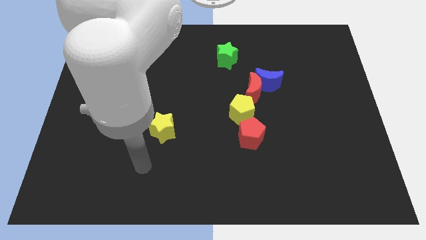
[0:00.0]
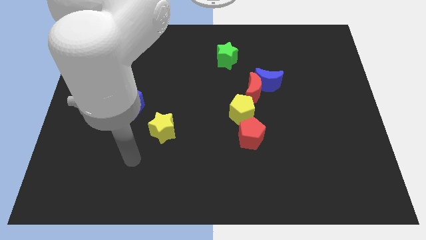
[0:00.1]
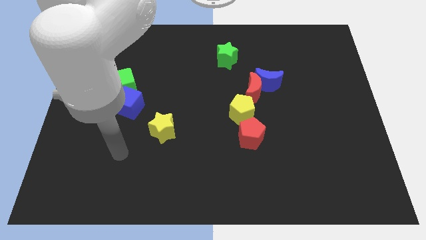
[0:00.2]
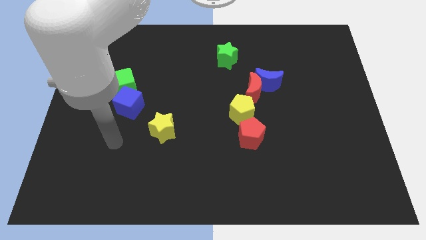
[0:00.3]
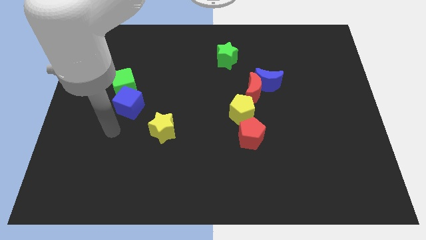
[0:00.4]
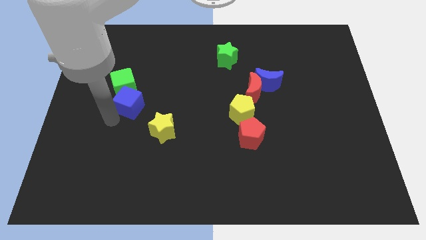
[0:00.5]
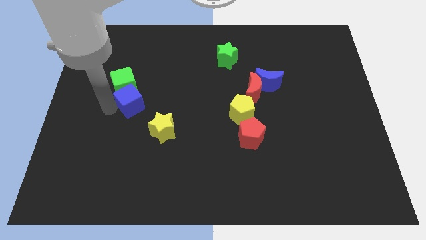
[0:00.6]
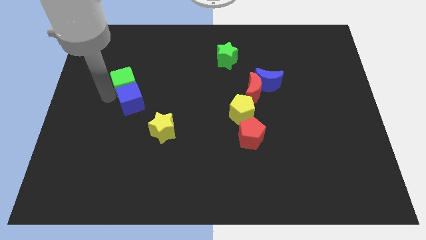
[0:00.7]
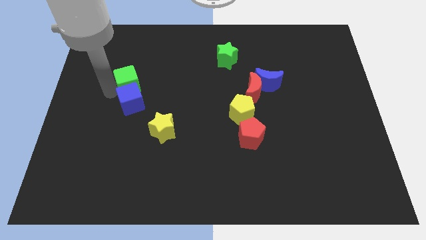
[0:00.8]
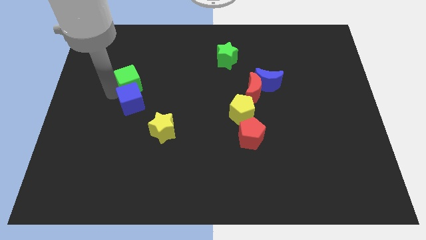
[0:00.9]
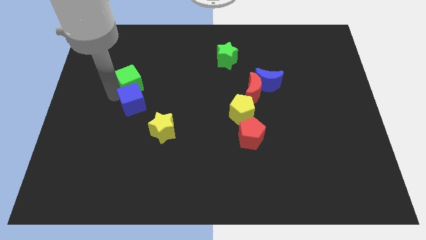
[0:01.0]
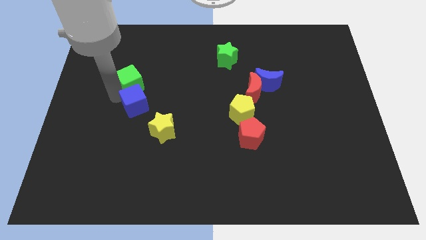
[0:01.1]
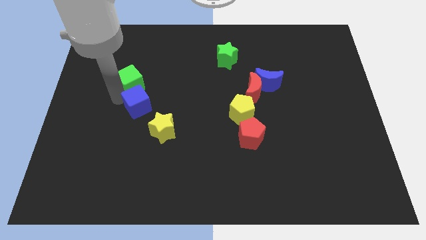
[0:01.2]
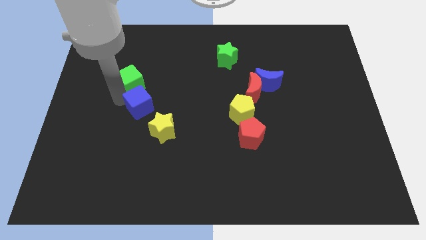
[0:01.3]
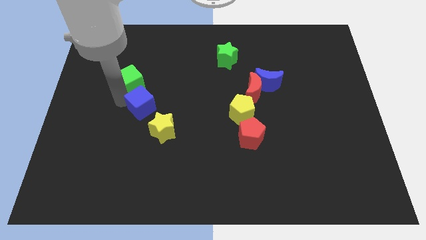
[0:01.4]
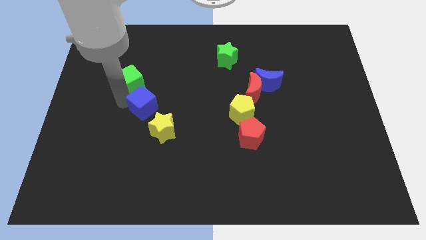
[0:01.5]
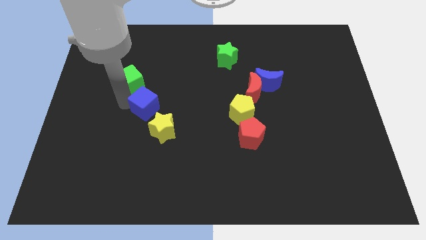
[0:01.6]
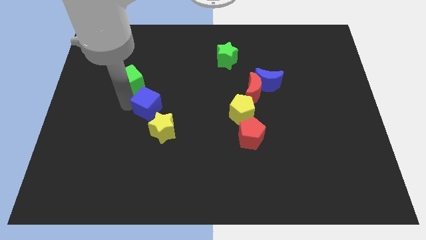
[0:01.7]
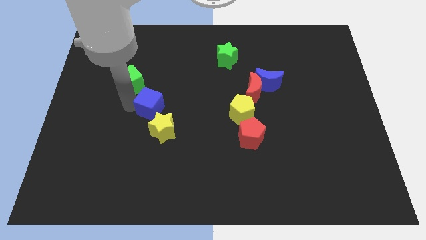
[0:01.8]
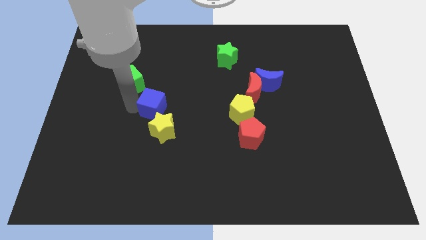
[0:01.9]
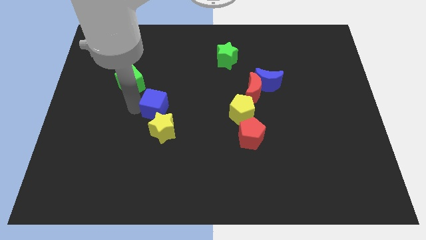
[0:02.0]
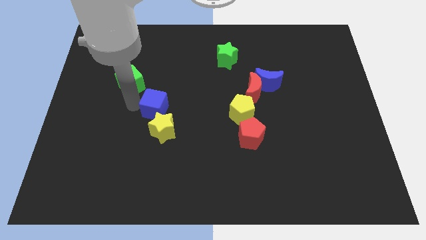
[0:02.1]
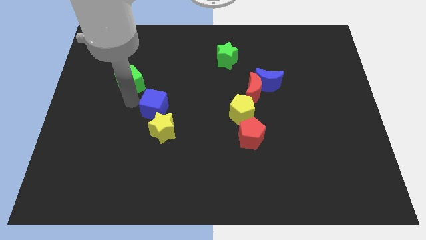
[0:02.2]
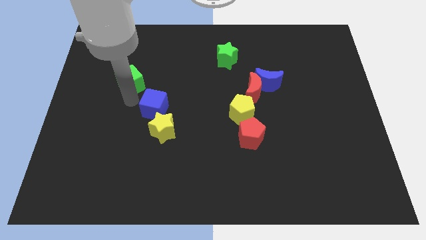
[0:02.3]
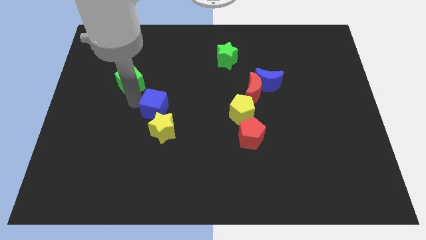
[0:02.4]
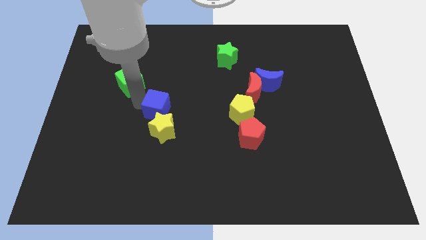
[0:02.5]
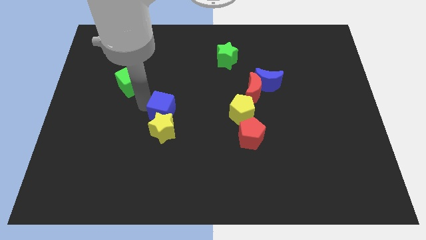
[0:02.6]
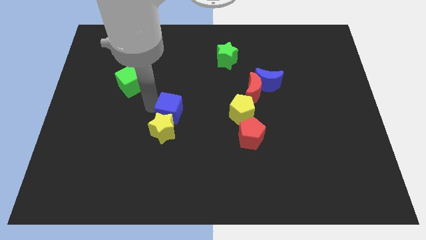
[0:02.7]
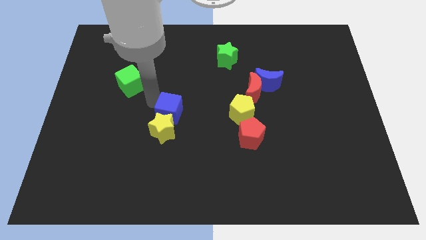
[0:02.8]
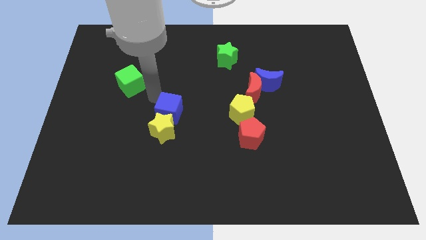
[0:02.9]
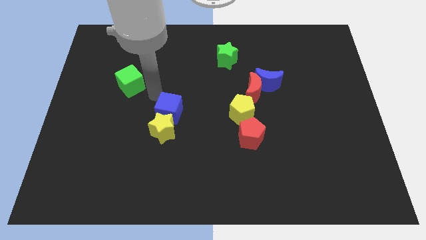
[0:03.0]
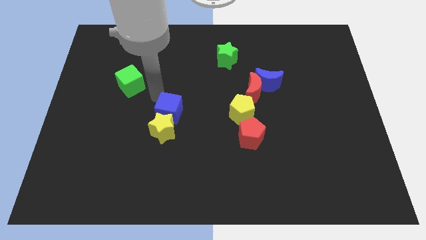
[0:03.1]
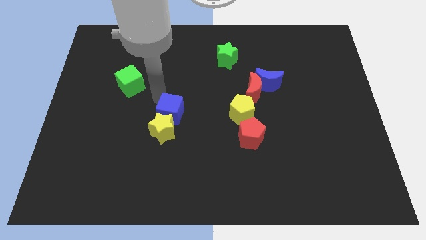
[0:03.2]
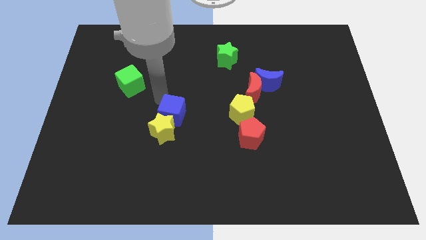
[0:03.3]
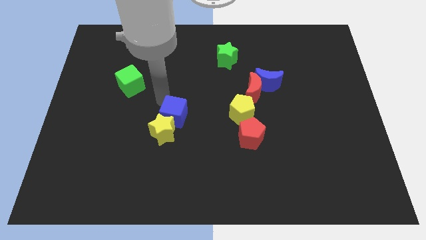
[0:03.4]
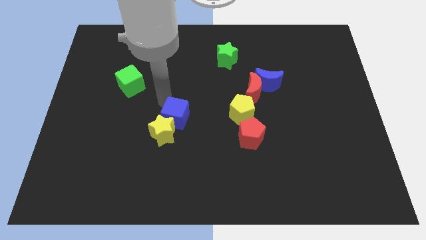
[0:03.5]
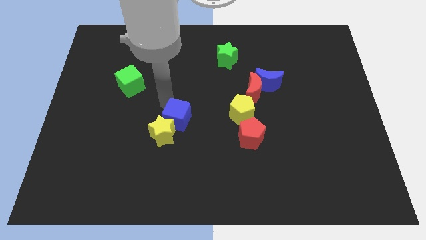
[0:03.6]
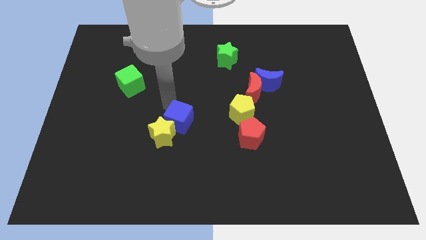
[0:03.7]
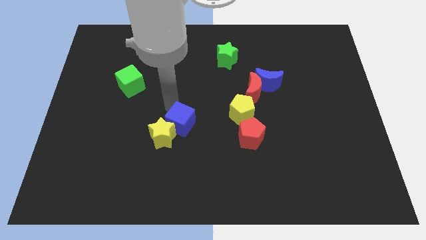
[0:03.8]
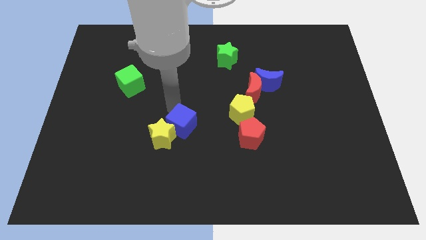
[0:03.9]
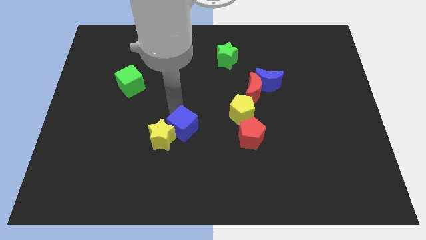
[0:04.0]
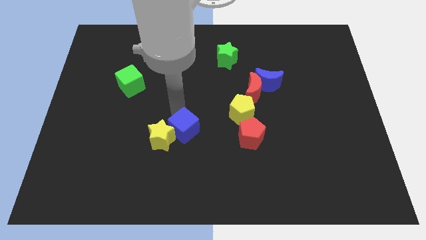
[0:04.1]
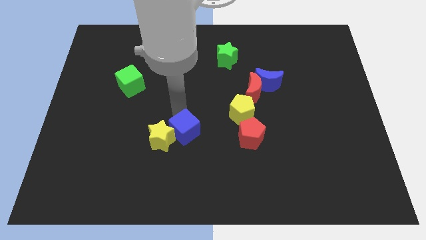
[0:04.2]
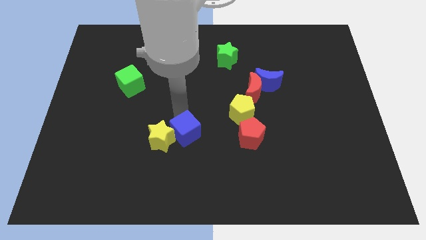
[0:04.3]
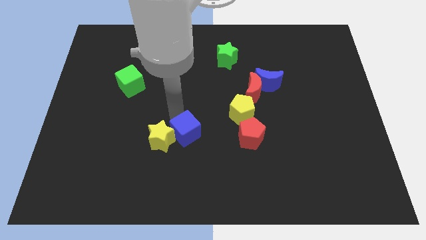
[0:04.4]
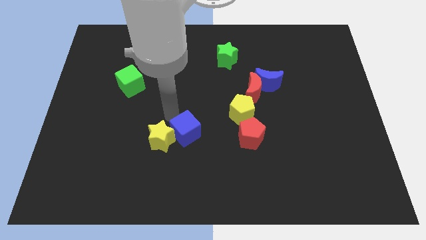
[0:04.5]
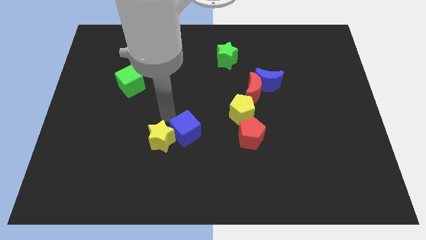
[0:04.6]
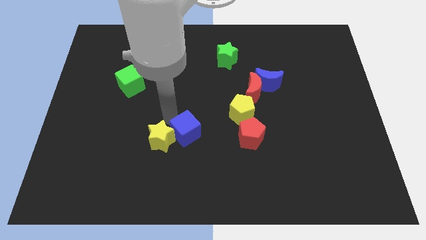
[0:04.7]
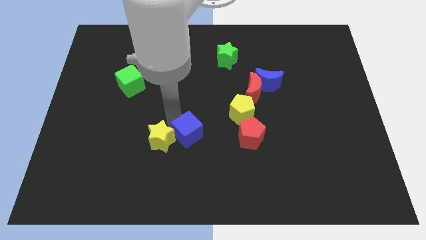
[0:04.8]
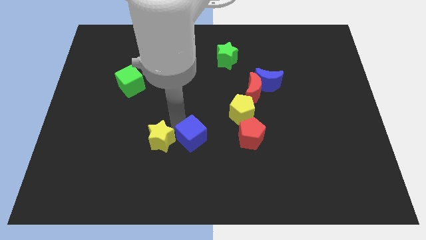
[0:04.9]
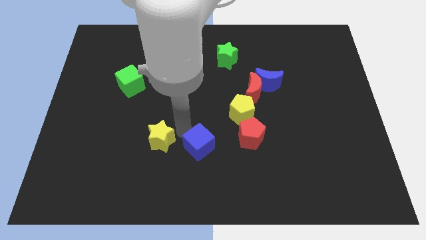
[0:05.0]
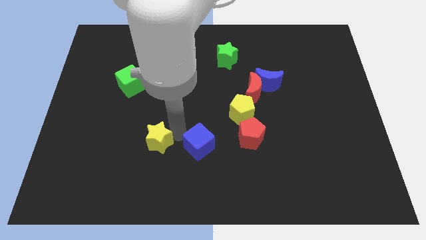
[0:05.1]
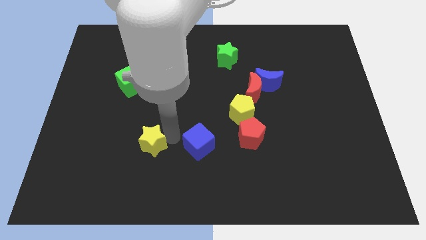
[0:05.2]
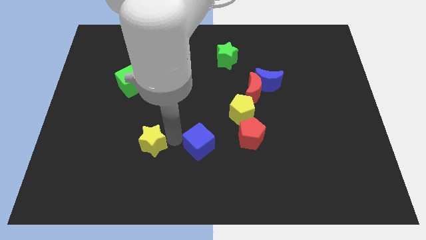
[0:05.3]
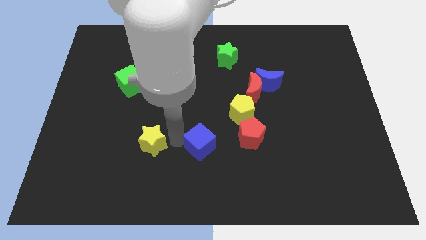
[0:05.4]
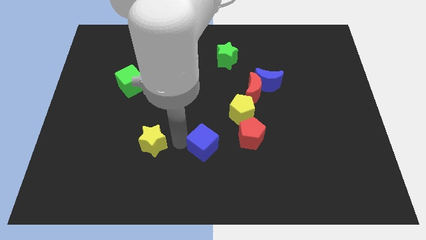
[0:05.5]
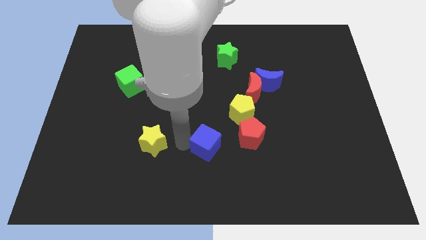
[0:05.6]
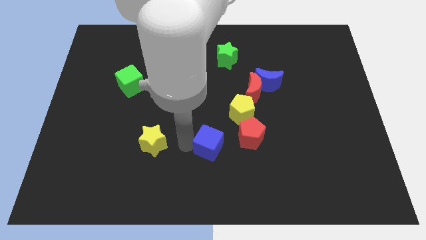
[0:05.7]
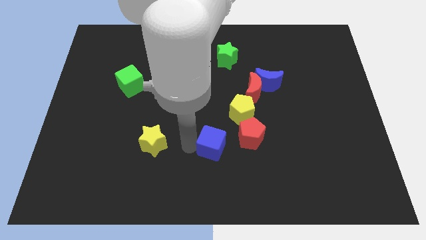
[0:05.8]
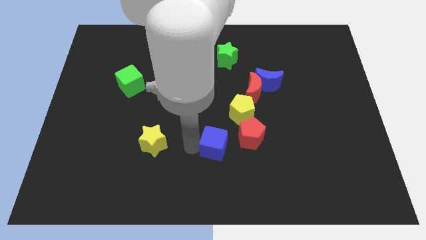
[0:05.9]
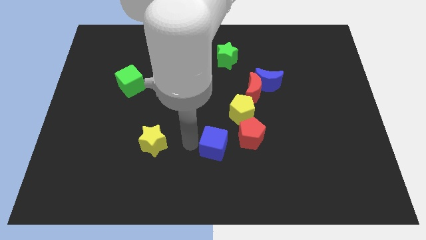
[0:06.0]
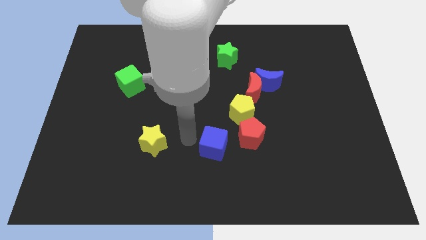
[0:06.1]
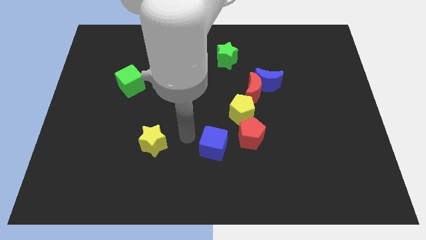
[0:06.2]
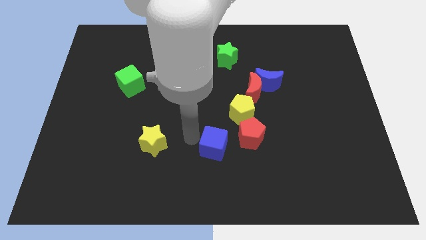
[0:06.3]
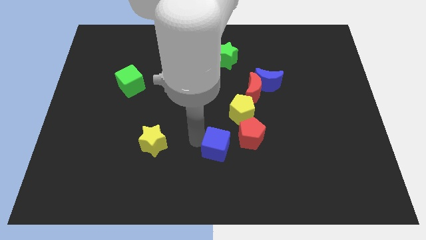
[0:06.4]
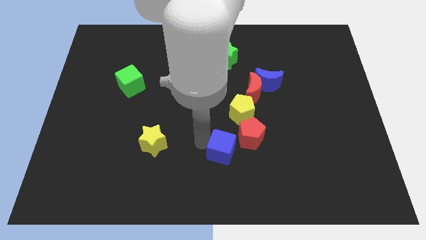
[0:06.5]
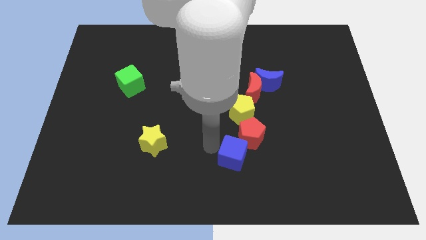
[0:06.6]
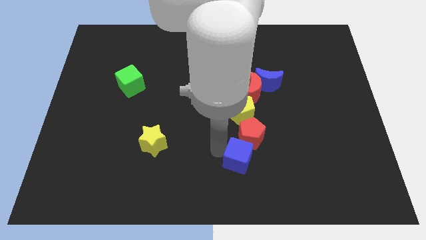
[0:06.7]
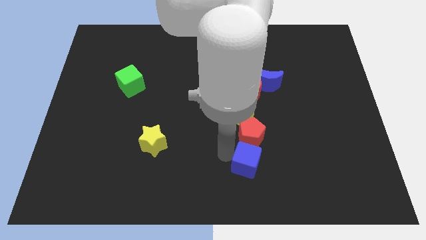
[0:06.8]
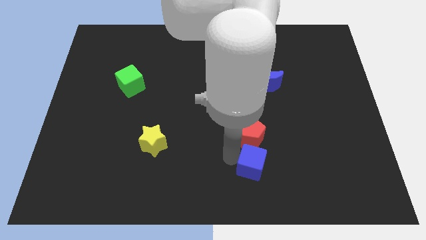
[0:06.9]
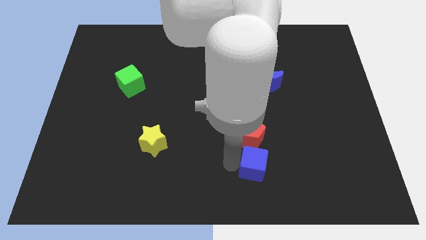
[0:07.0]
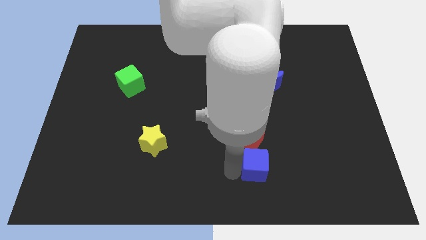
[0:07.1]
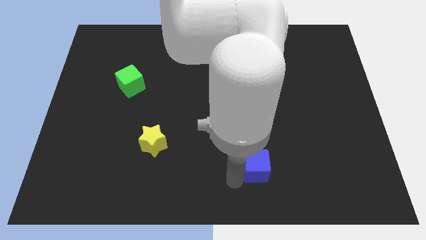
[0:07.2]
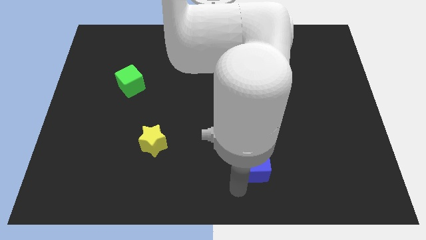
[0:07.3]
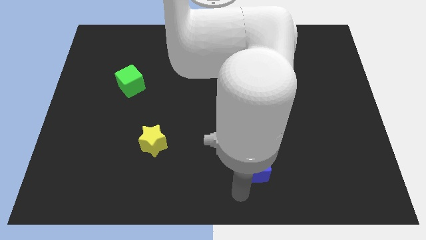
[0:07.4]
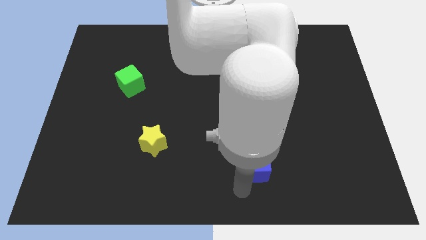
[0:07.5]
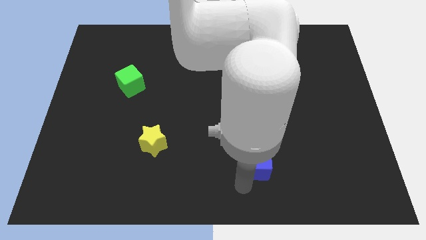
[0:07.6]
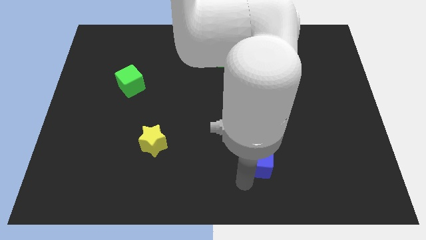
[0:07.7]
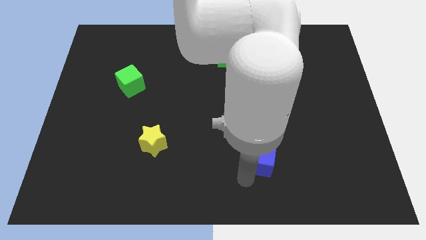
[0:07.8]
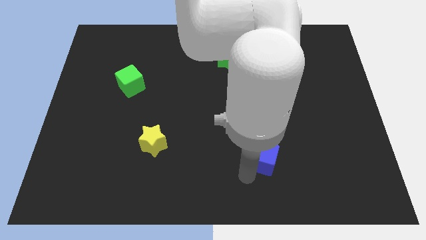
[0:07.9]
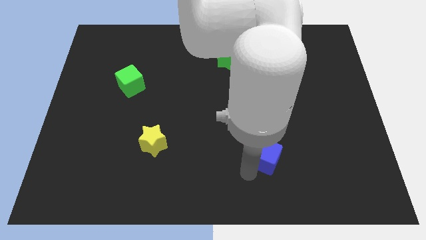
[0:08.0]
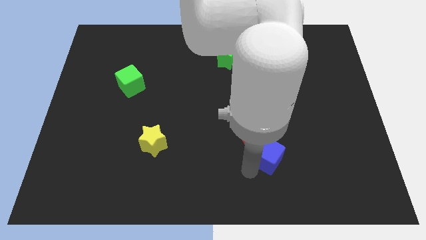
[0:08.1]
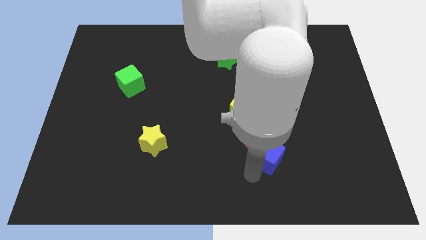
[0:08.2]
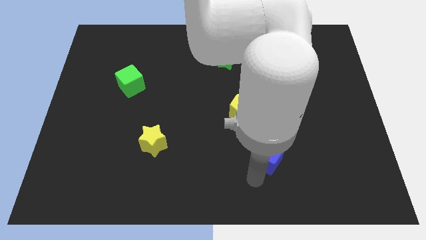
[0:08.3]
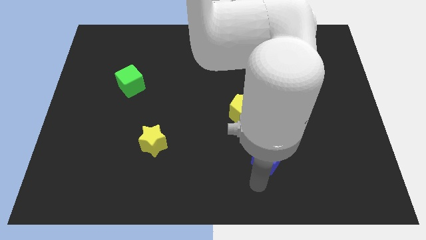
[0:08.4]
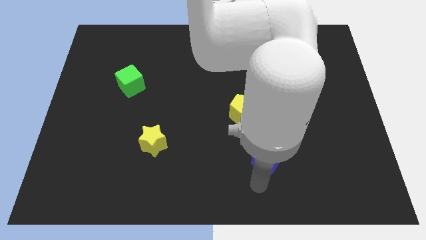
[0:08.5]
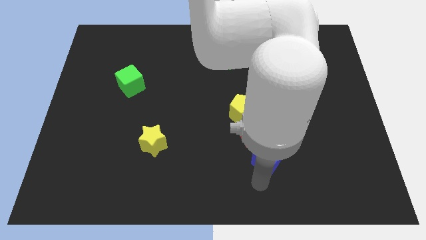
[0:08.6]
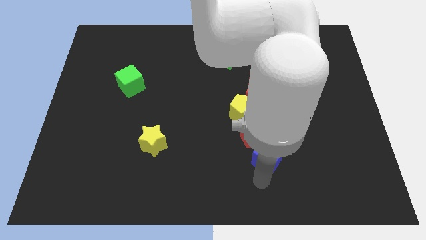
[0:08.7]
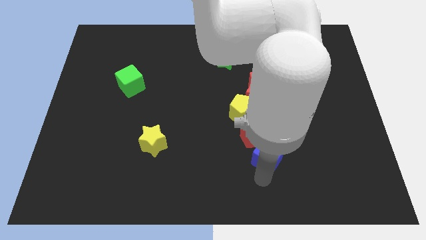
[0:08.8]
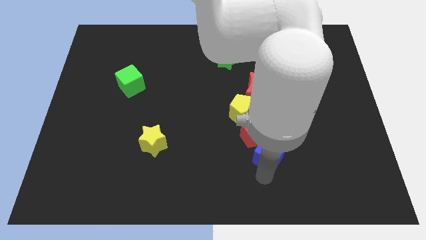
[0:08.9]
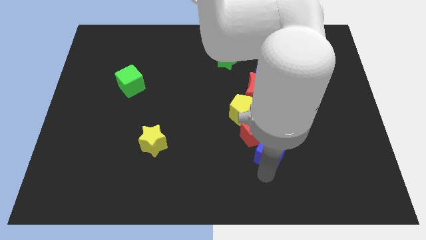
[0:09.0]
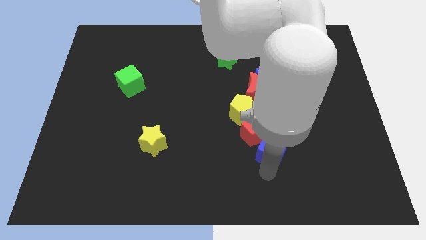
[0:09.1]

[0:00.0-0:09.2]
move the blue cube to the right
